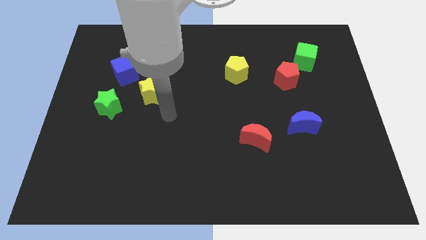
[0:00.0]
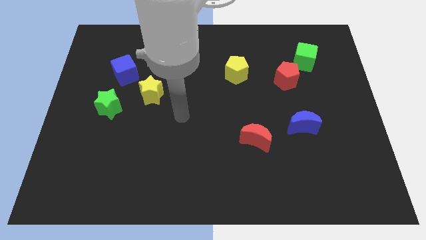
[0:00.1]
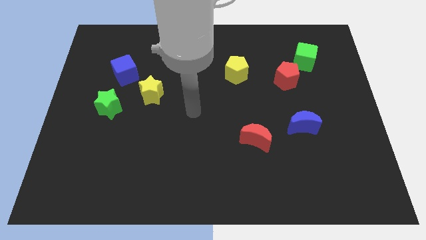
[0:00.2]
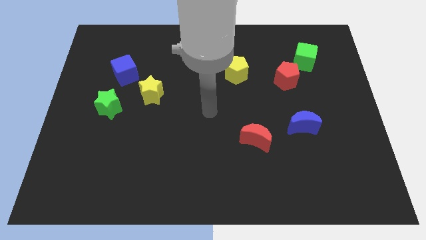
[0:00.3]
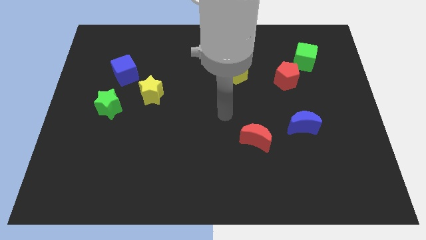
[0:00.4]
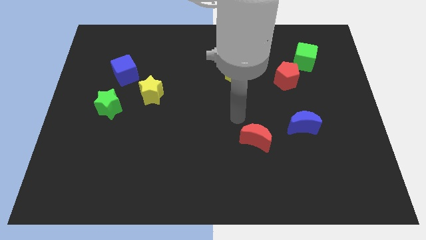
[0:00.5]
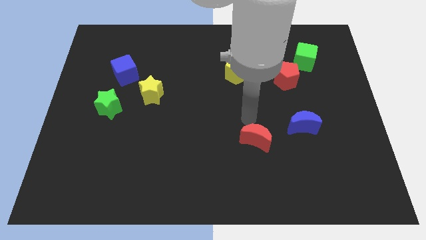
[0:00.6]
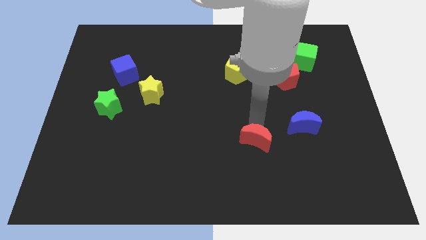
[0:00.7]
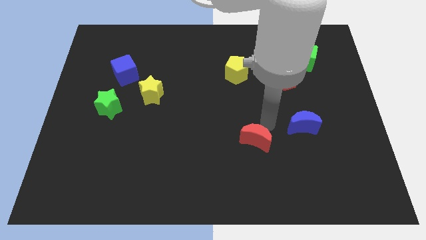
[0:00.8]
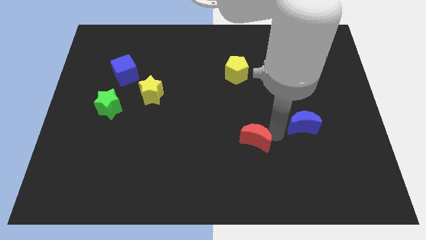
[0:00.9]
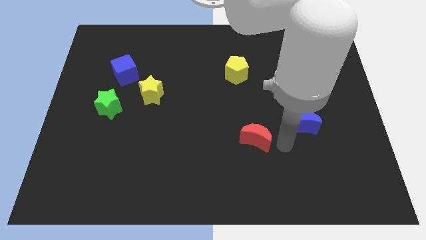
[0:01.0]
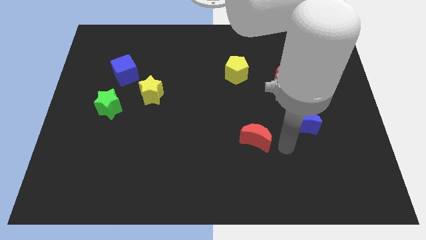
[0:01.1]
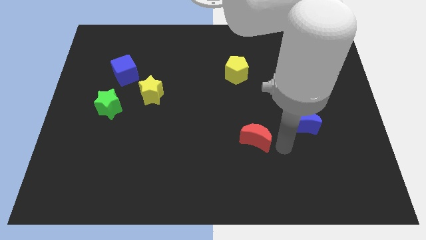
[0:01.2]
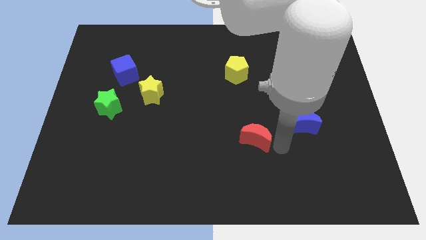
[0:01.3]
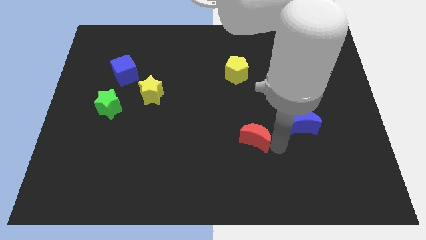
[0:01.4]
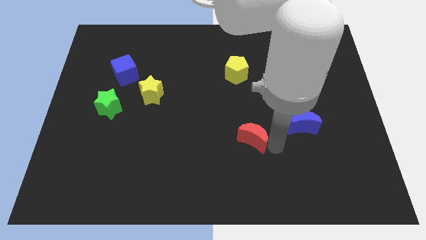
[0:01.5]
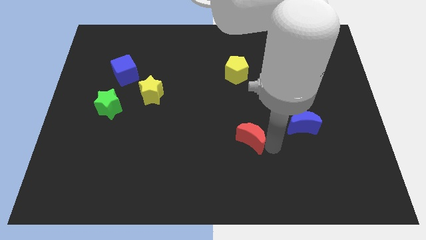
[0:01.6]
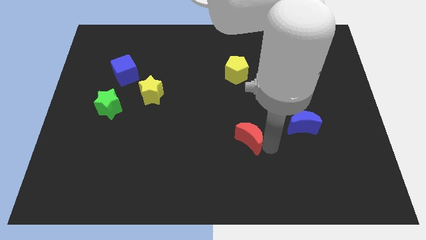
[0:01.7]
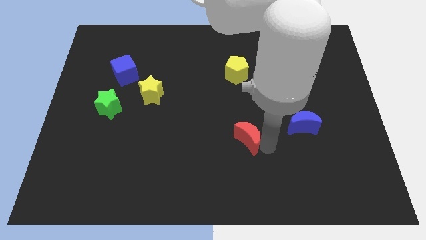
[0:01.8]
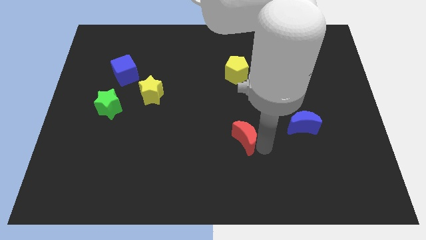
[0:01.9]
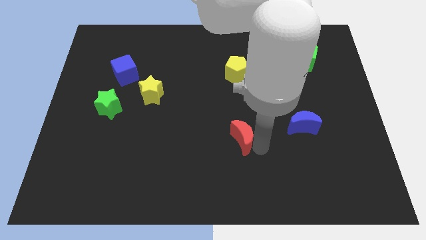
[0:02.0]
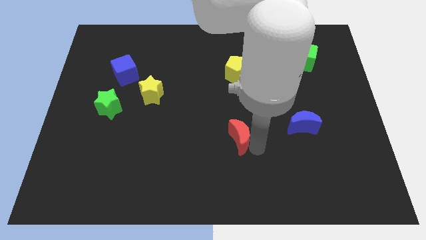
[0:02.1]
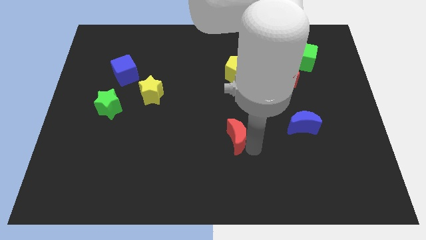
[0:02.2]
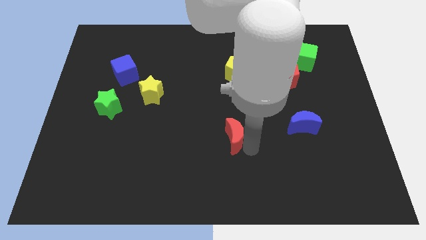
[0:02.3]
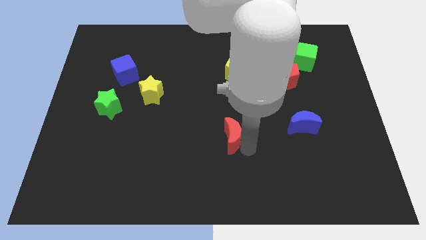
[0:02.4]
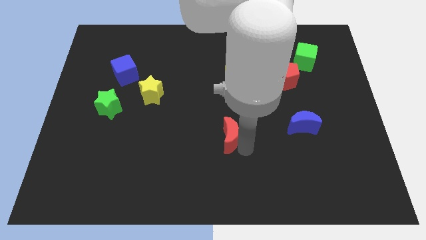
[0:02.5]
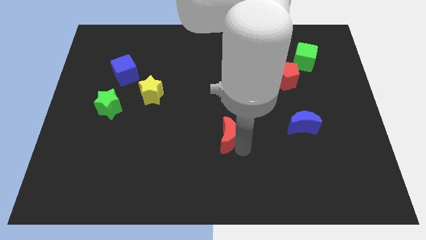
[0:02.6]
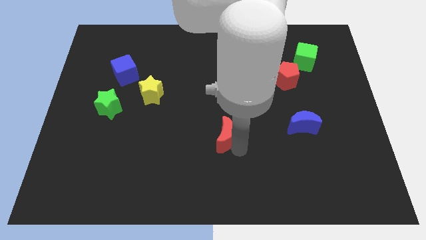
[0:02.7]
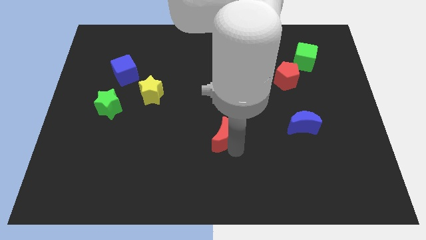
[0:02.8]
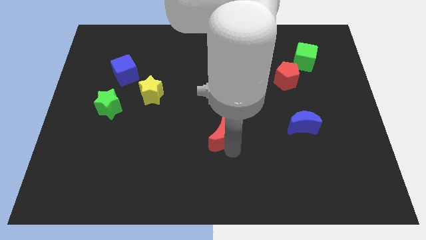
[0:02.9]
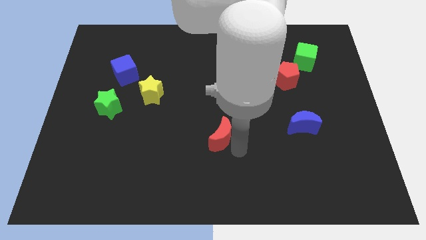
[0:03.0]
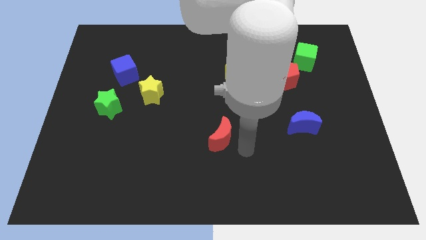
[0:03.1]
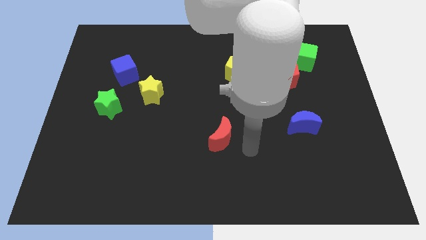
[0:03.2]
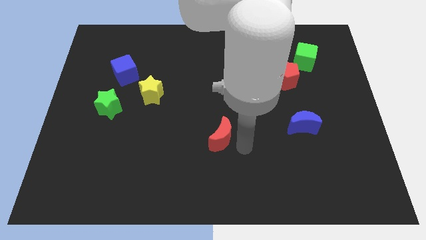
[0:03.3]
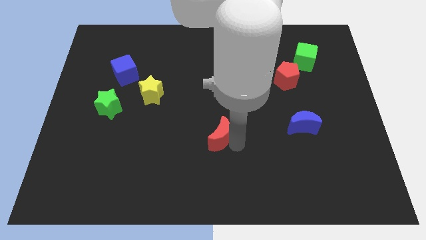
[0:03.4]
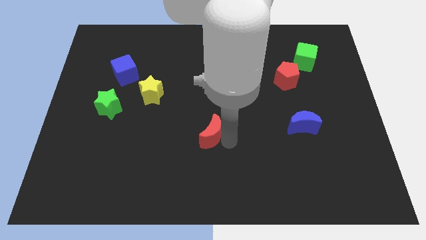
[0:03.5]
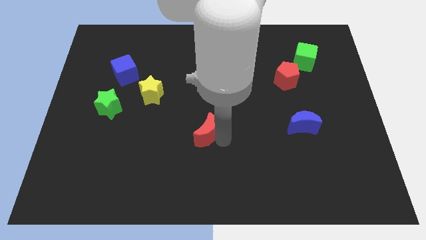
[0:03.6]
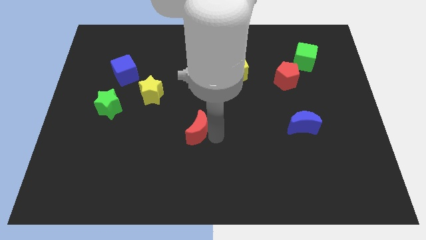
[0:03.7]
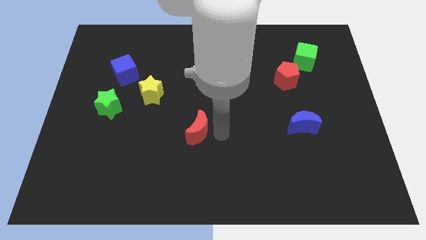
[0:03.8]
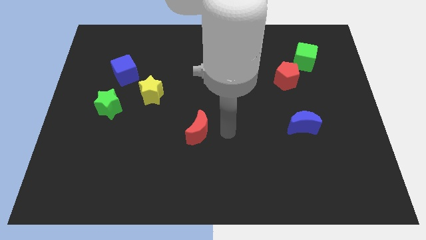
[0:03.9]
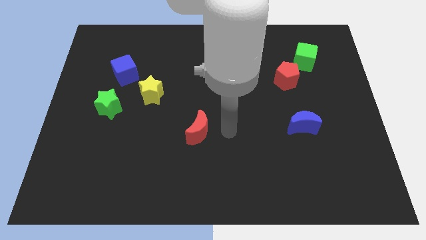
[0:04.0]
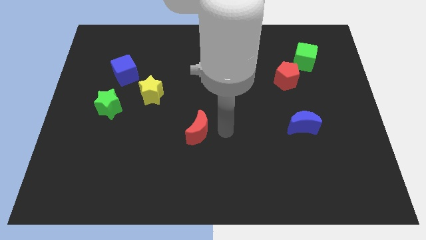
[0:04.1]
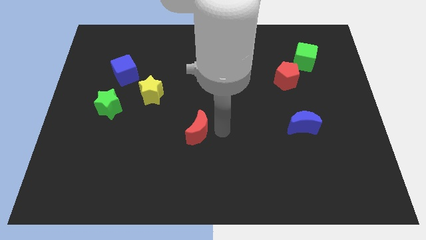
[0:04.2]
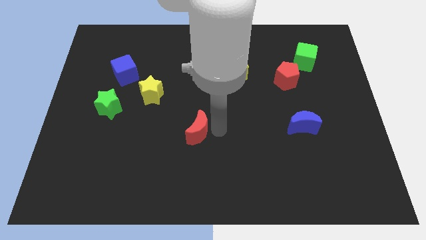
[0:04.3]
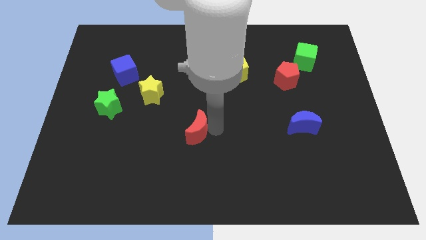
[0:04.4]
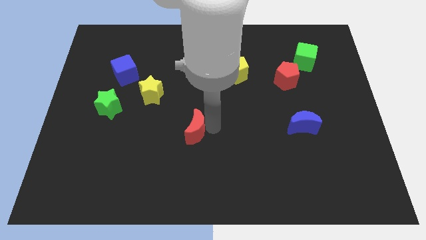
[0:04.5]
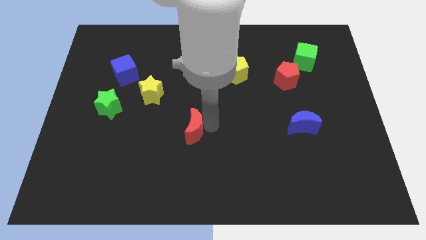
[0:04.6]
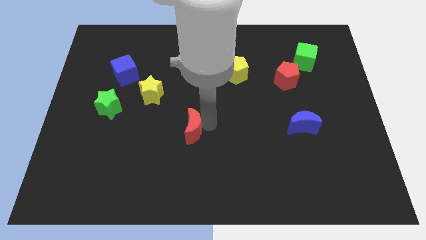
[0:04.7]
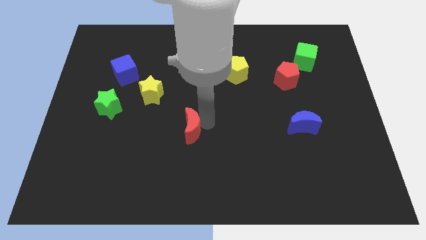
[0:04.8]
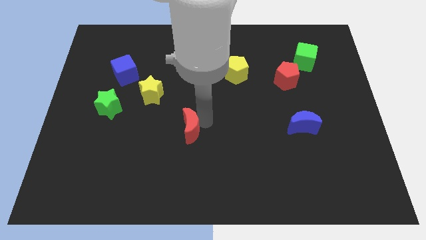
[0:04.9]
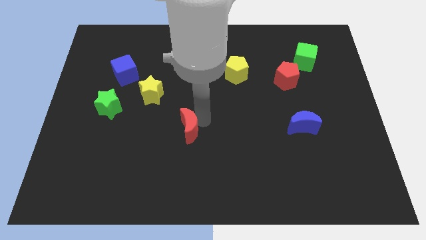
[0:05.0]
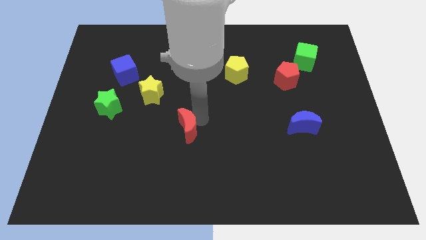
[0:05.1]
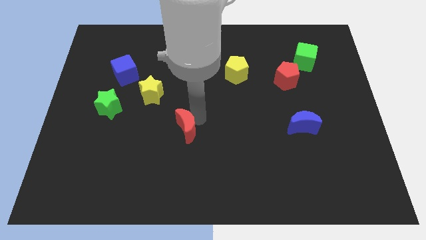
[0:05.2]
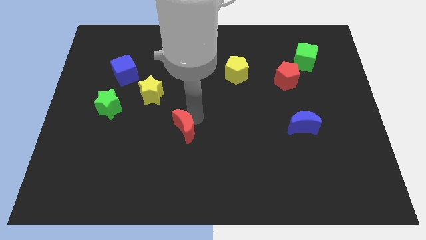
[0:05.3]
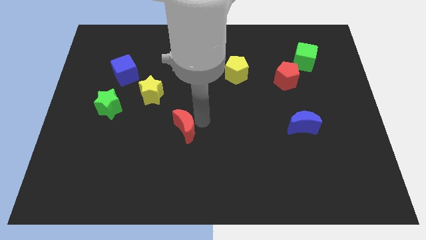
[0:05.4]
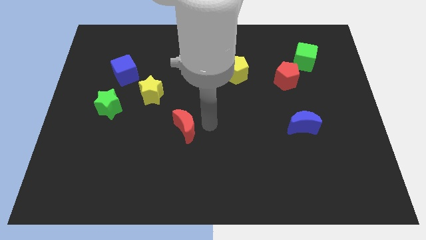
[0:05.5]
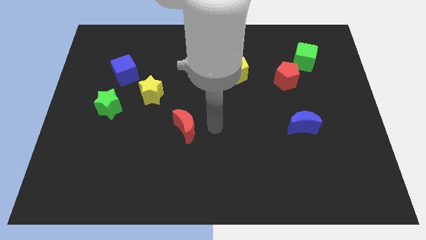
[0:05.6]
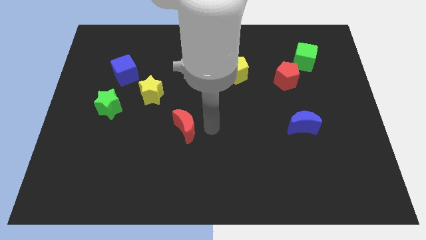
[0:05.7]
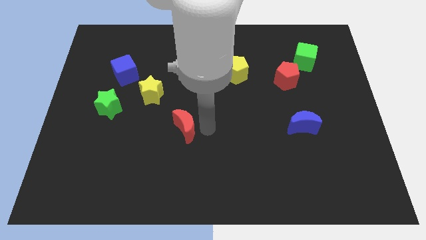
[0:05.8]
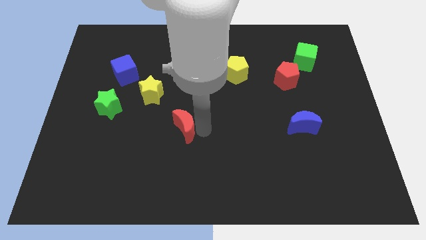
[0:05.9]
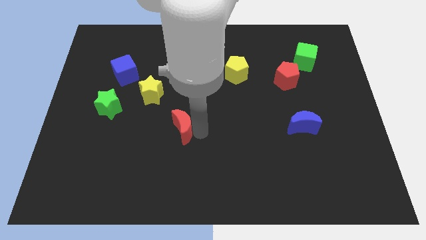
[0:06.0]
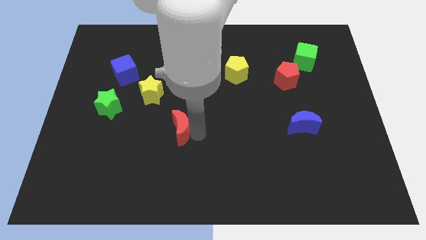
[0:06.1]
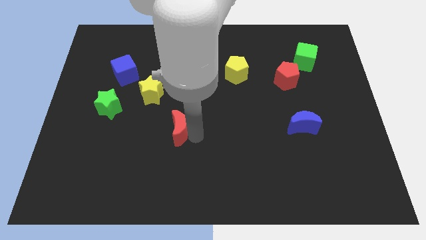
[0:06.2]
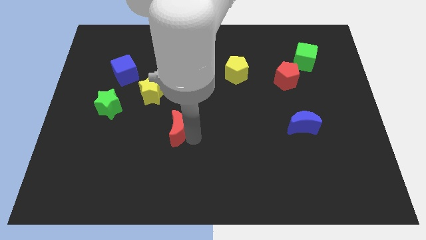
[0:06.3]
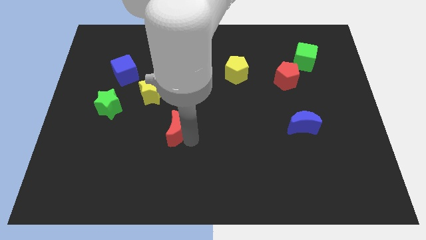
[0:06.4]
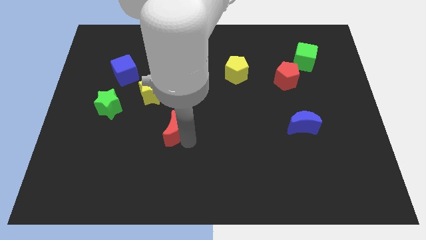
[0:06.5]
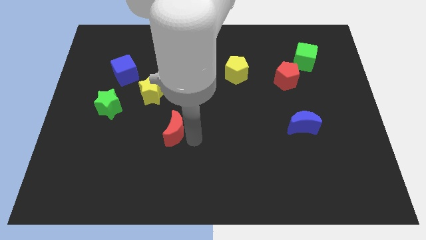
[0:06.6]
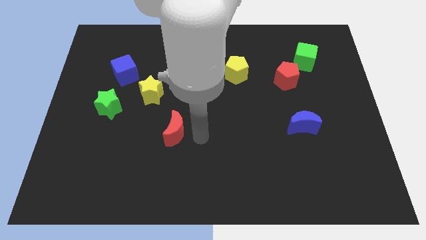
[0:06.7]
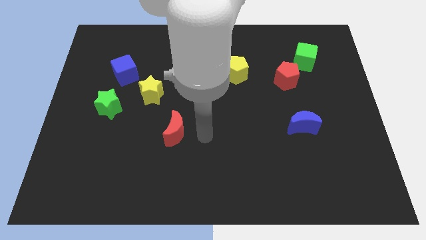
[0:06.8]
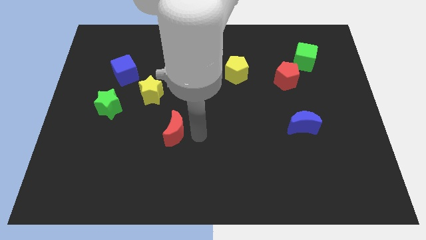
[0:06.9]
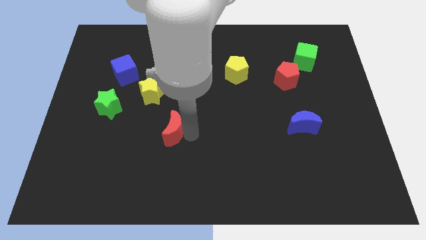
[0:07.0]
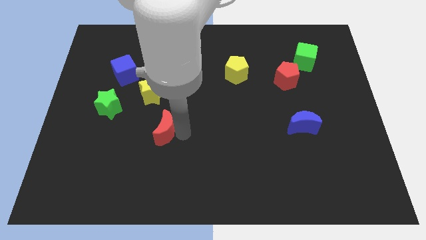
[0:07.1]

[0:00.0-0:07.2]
slide the red moon below the yellow star
